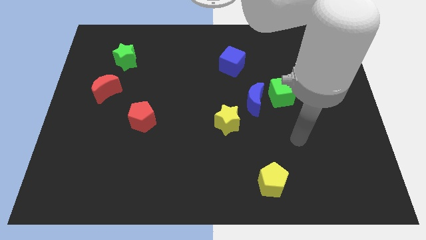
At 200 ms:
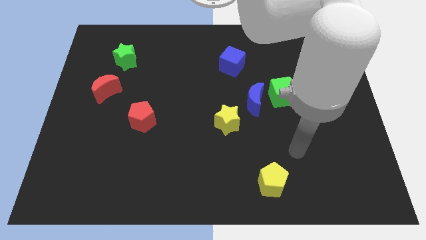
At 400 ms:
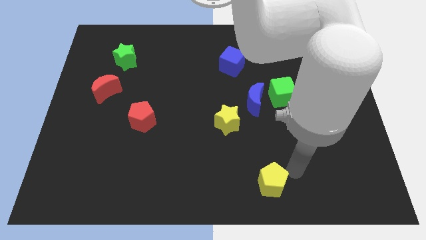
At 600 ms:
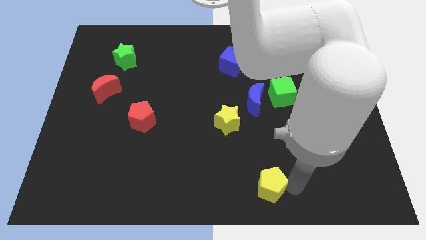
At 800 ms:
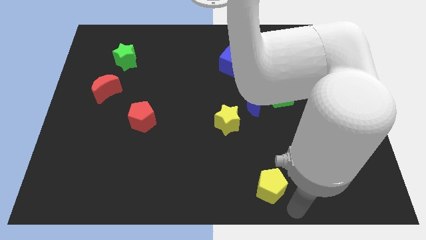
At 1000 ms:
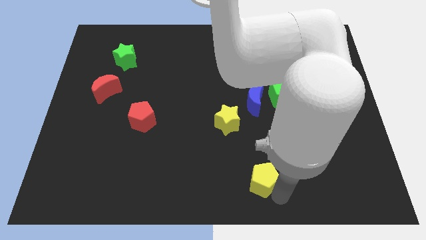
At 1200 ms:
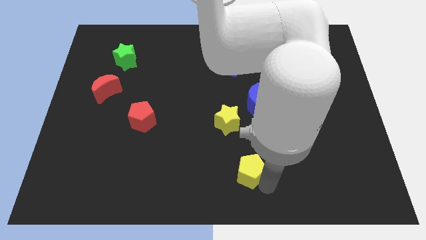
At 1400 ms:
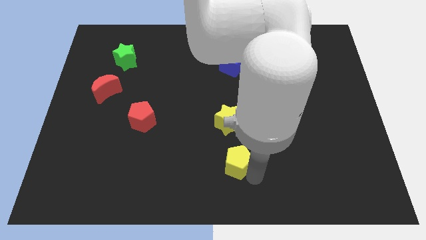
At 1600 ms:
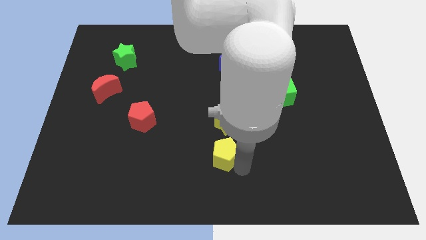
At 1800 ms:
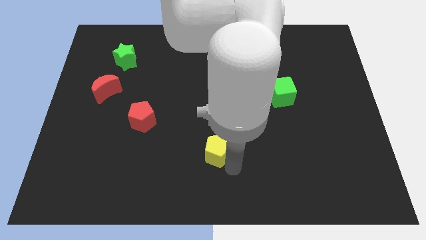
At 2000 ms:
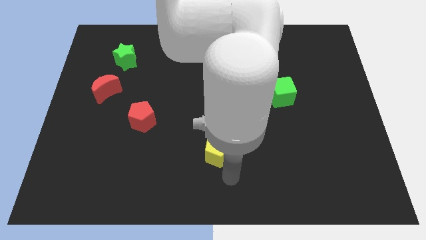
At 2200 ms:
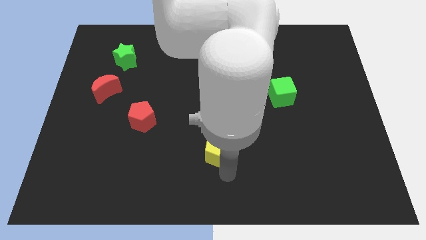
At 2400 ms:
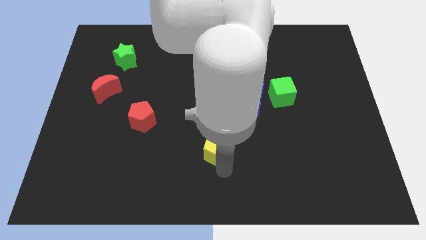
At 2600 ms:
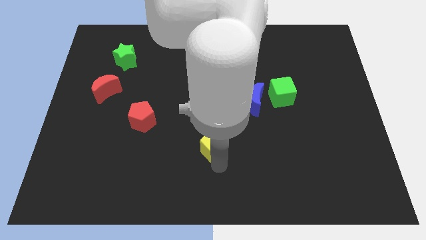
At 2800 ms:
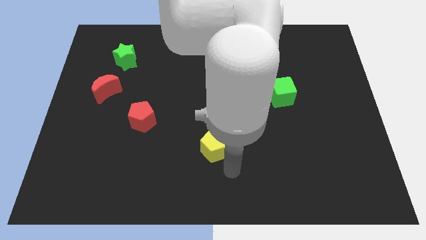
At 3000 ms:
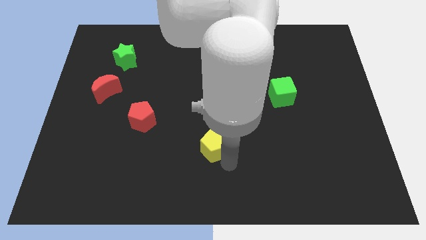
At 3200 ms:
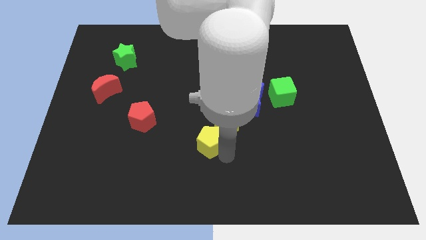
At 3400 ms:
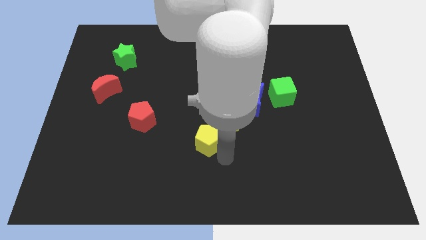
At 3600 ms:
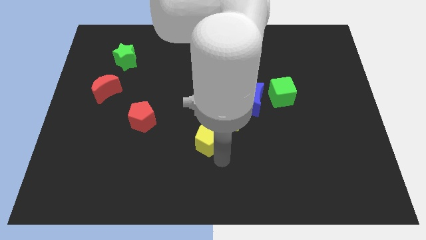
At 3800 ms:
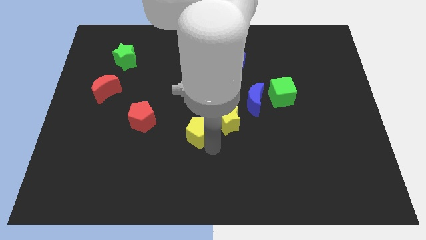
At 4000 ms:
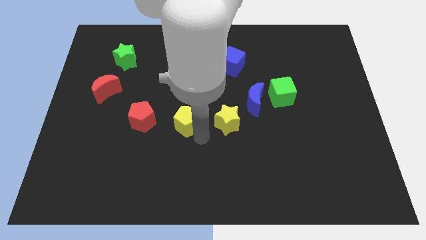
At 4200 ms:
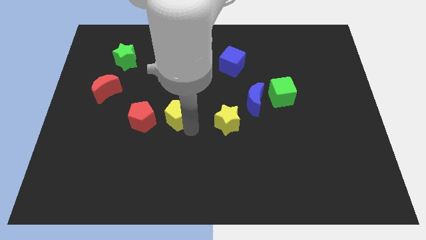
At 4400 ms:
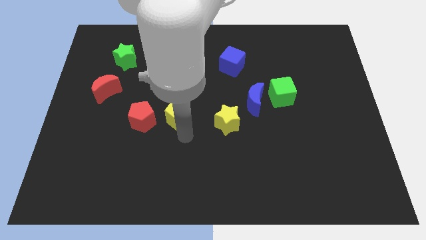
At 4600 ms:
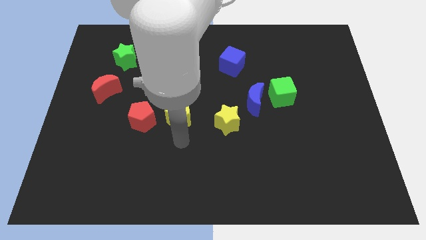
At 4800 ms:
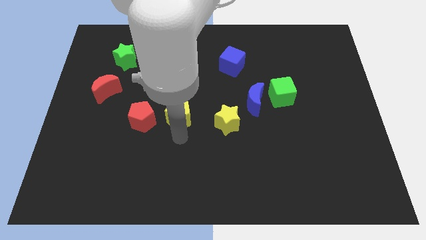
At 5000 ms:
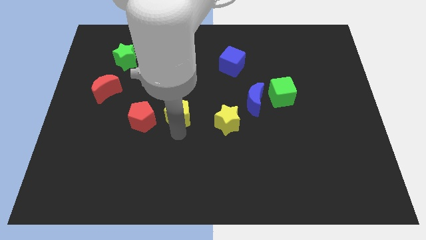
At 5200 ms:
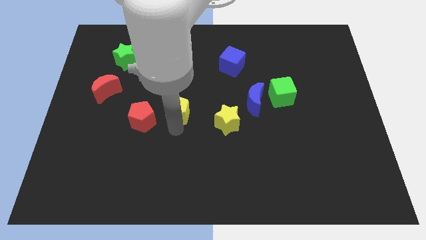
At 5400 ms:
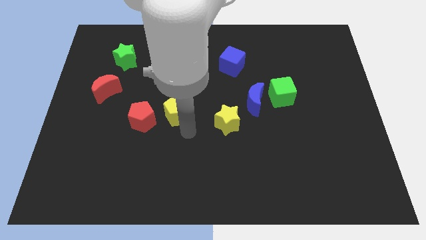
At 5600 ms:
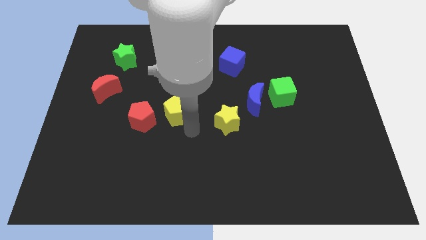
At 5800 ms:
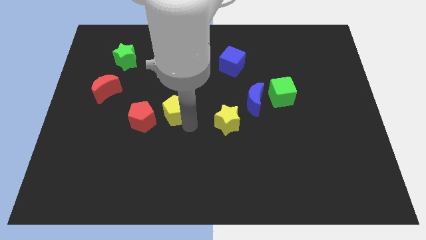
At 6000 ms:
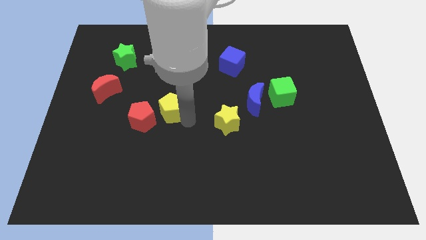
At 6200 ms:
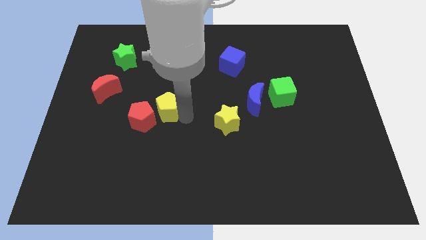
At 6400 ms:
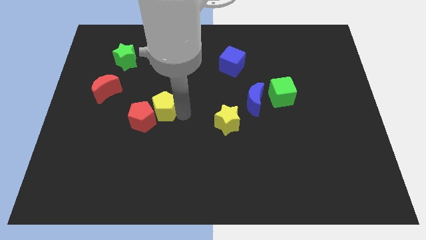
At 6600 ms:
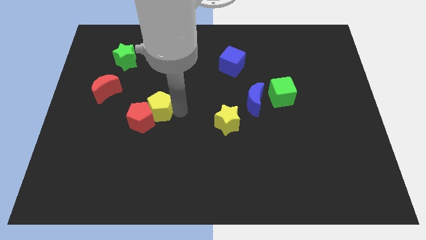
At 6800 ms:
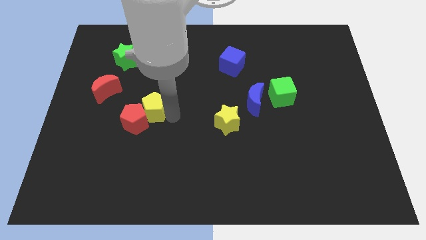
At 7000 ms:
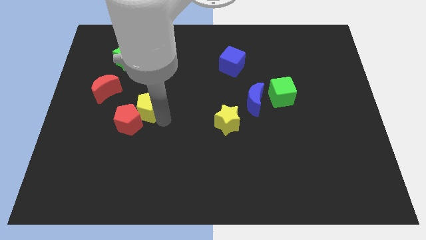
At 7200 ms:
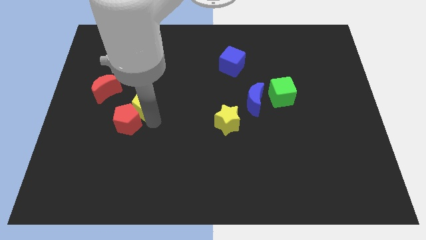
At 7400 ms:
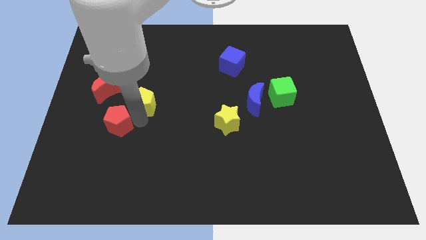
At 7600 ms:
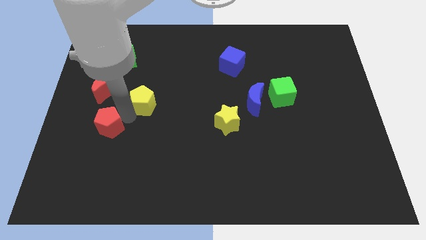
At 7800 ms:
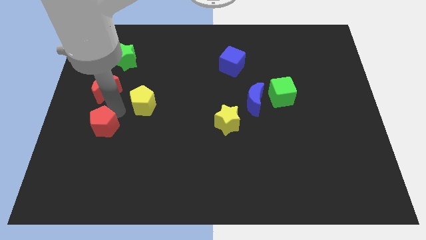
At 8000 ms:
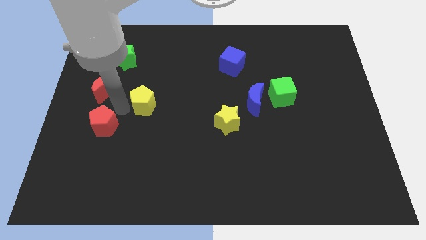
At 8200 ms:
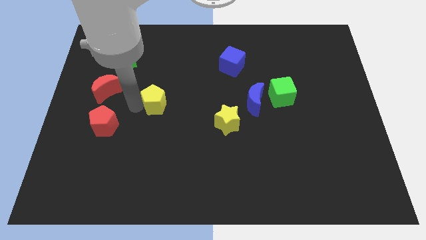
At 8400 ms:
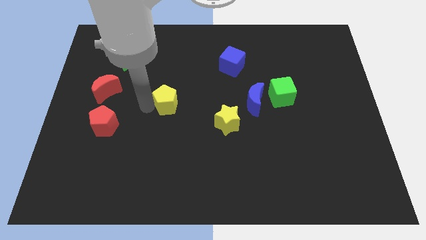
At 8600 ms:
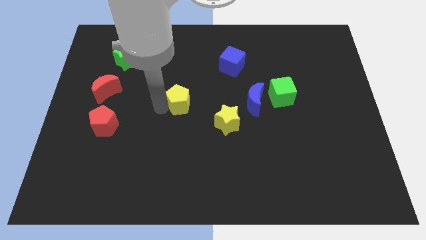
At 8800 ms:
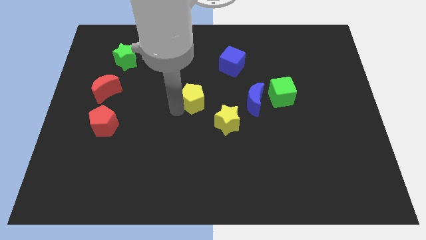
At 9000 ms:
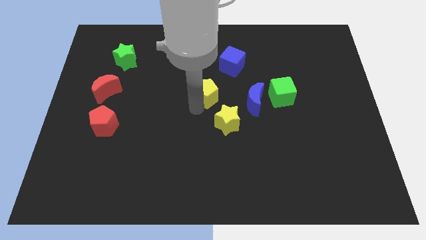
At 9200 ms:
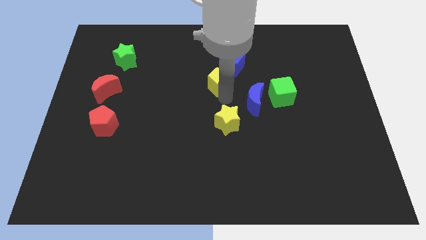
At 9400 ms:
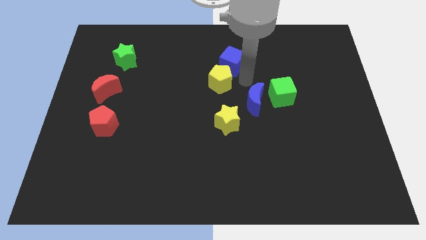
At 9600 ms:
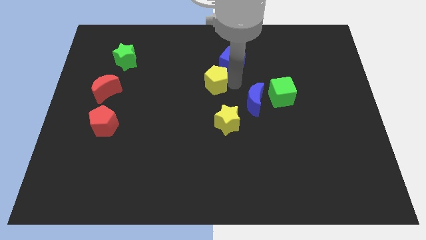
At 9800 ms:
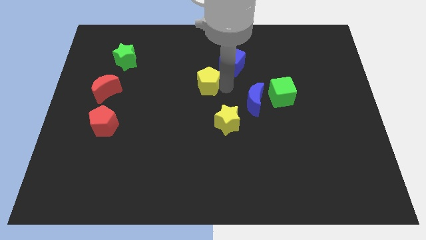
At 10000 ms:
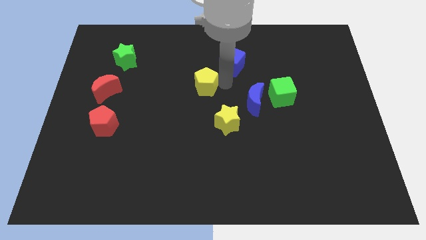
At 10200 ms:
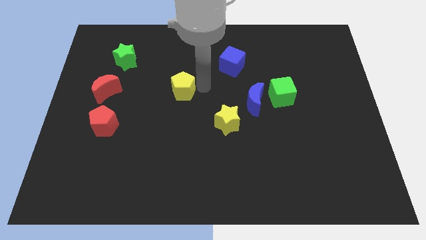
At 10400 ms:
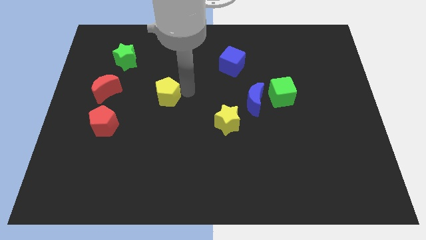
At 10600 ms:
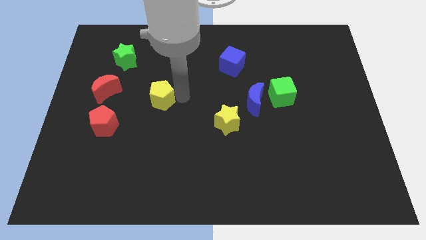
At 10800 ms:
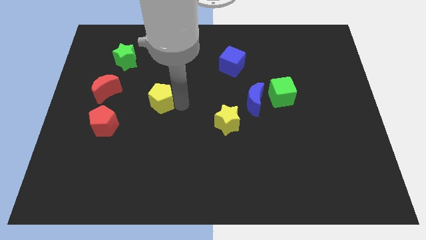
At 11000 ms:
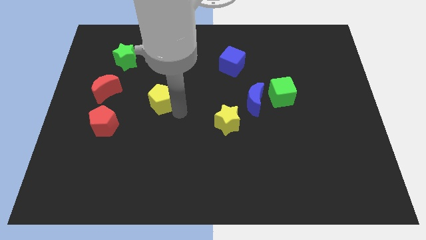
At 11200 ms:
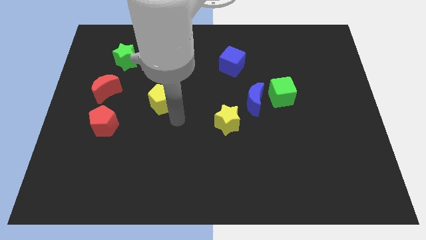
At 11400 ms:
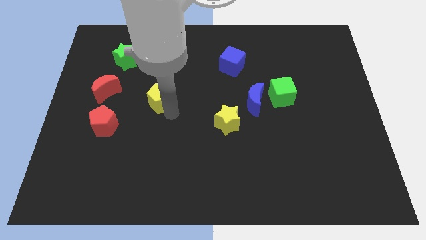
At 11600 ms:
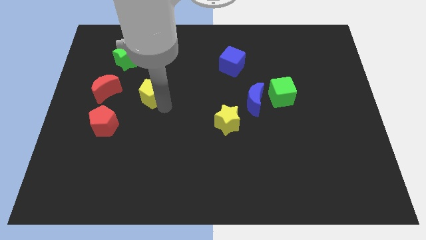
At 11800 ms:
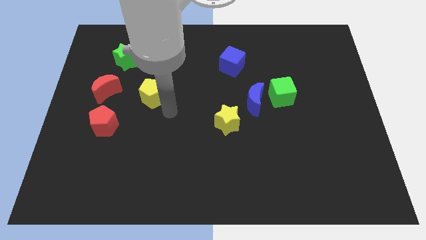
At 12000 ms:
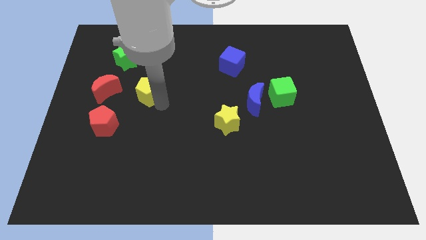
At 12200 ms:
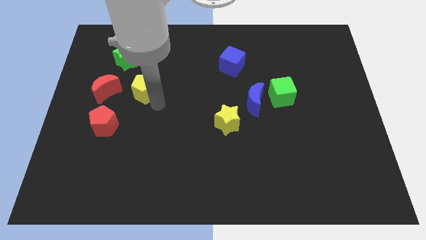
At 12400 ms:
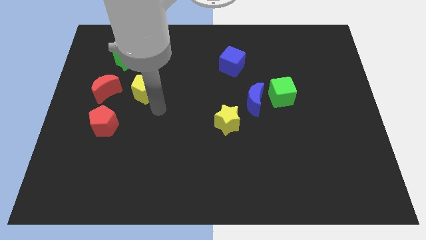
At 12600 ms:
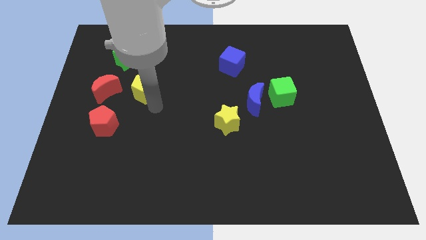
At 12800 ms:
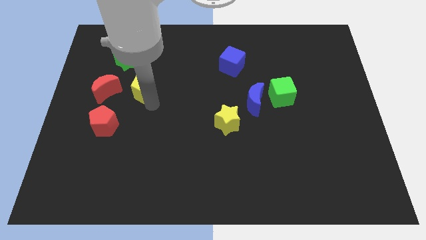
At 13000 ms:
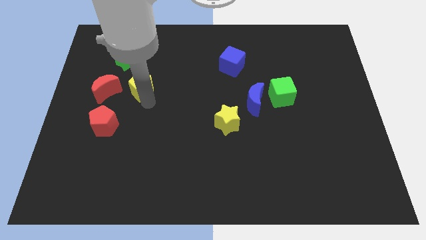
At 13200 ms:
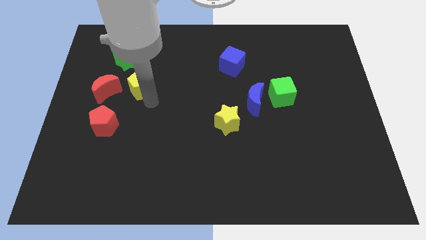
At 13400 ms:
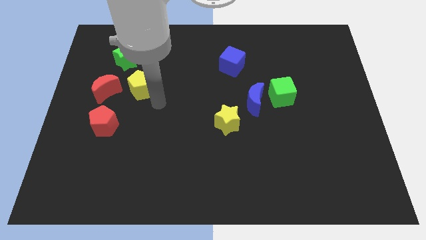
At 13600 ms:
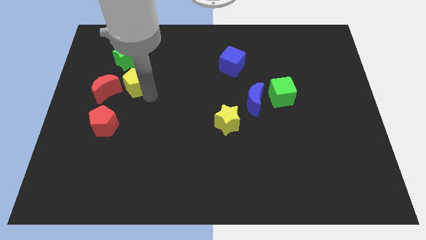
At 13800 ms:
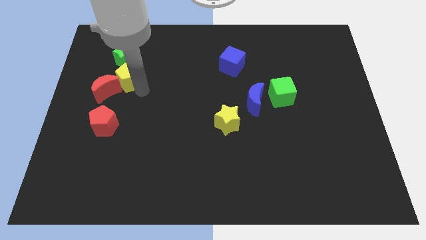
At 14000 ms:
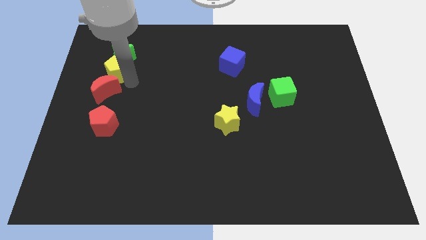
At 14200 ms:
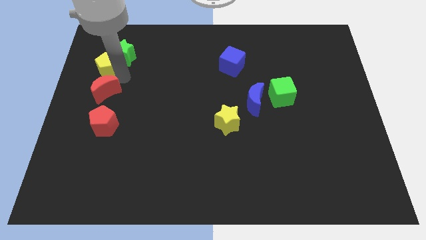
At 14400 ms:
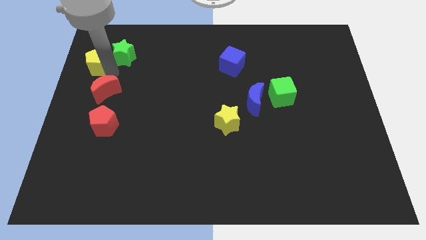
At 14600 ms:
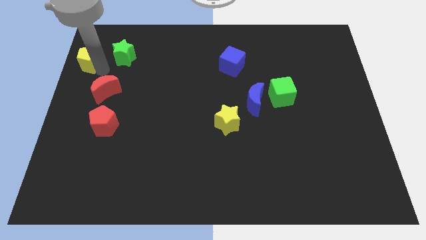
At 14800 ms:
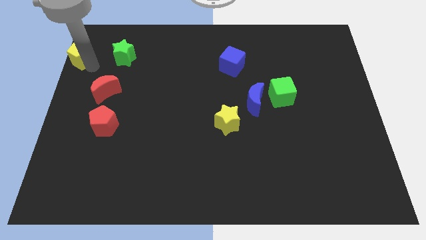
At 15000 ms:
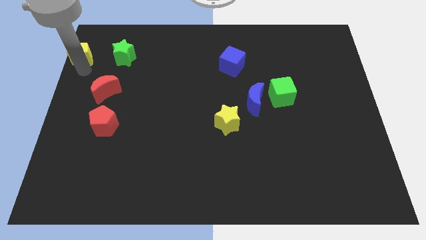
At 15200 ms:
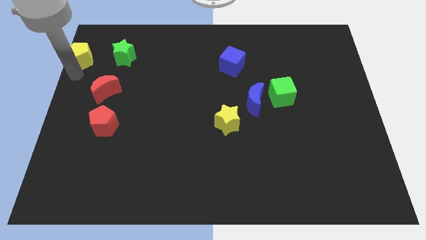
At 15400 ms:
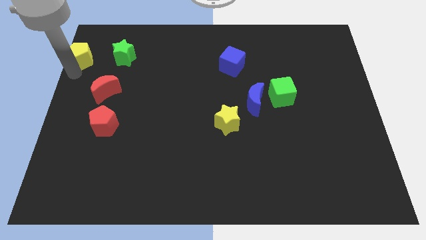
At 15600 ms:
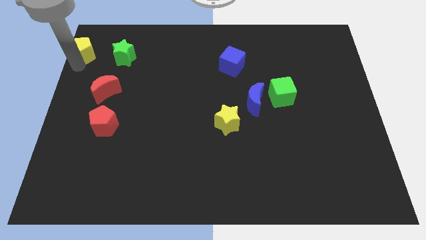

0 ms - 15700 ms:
push the yellow pentagon to the top left
